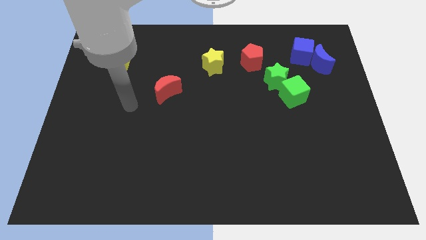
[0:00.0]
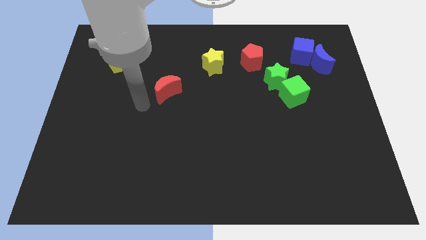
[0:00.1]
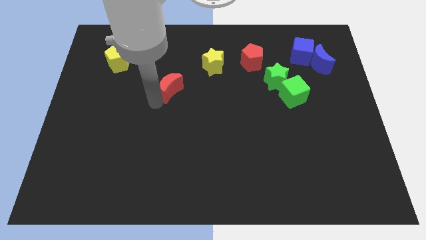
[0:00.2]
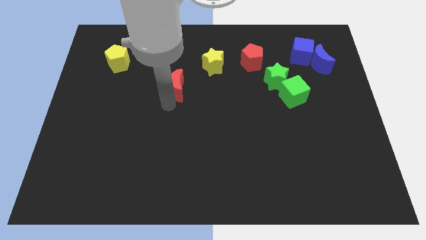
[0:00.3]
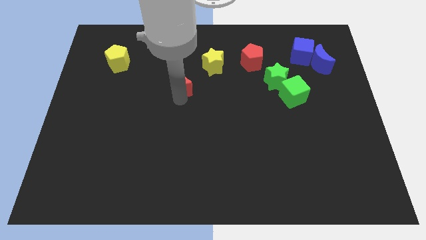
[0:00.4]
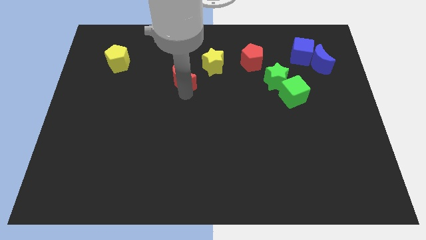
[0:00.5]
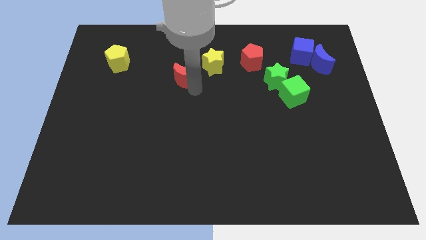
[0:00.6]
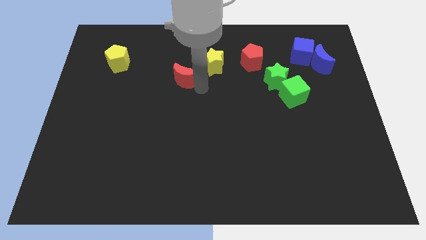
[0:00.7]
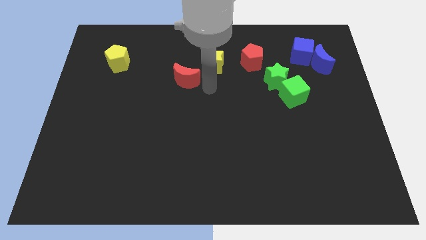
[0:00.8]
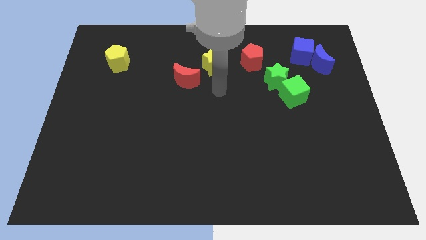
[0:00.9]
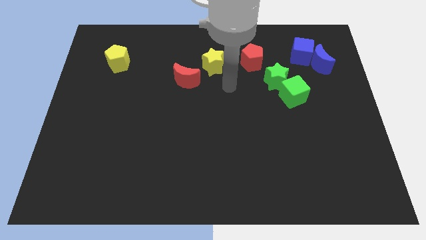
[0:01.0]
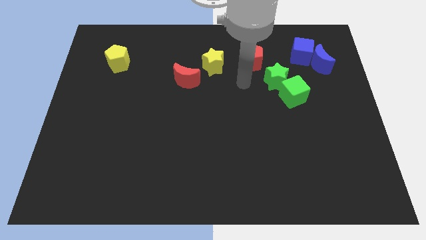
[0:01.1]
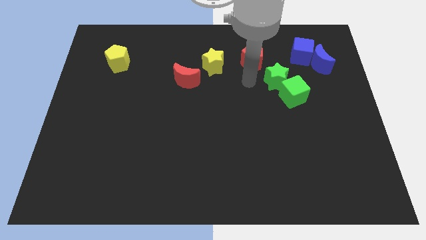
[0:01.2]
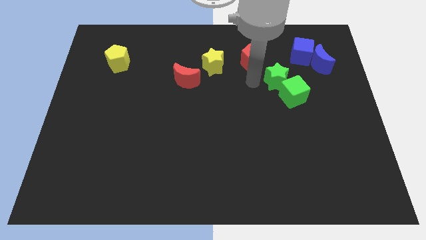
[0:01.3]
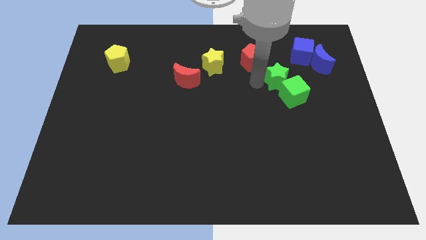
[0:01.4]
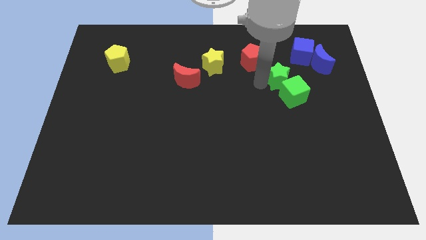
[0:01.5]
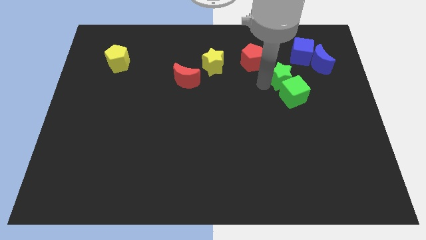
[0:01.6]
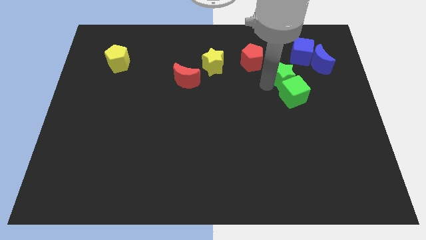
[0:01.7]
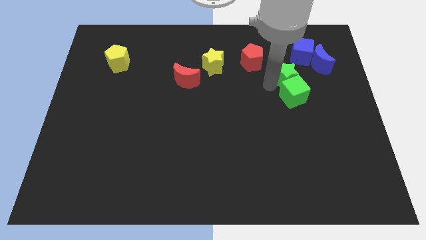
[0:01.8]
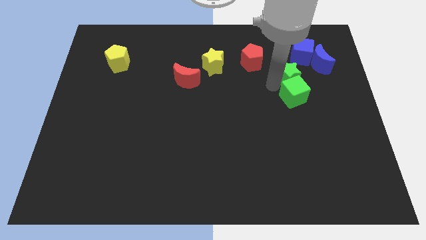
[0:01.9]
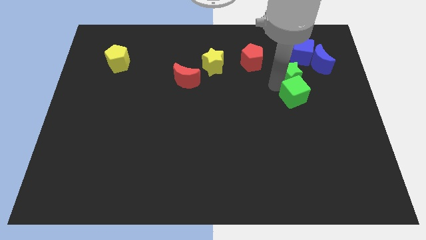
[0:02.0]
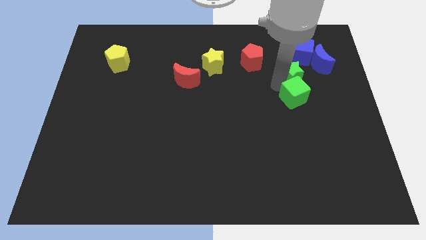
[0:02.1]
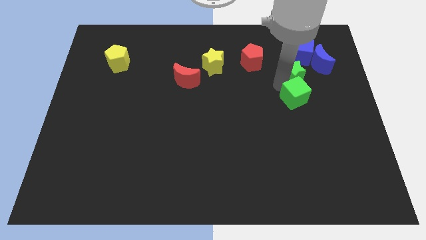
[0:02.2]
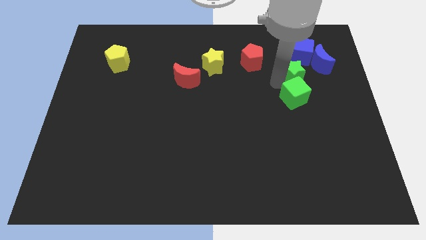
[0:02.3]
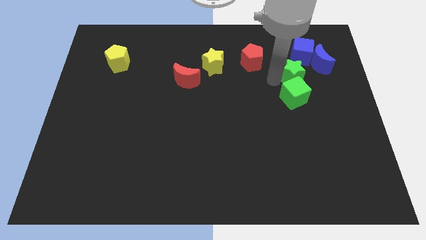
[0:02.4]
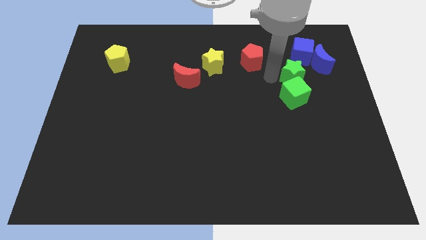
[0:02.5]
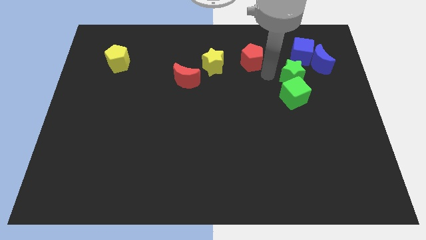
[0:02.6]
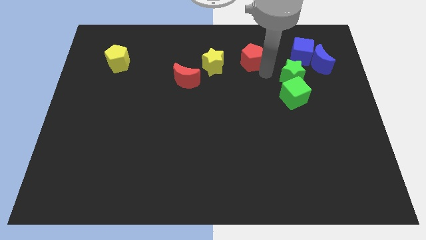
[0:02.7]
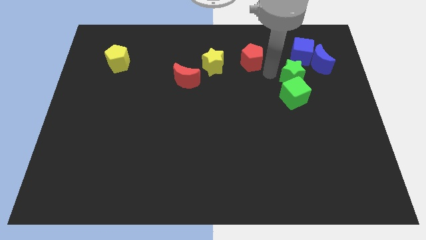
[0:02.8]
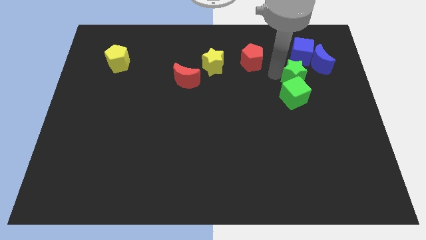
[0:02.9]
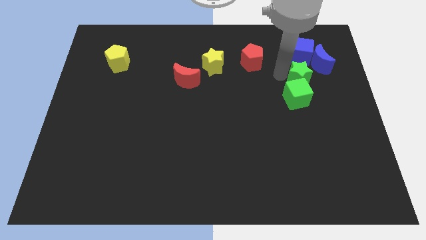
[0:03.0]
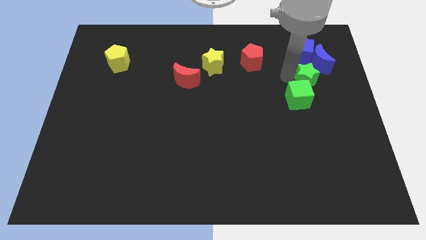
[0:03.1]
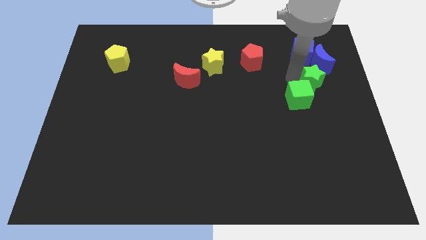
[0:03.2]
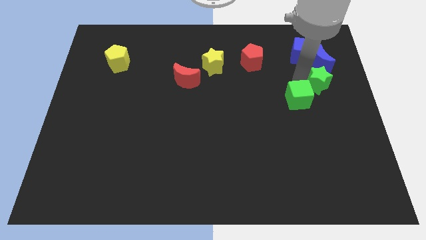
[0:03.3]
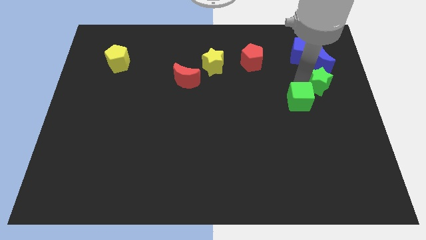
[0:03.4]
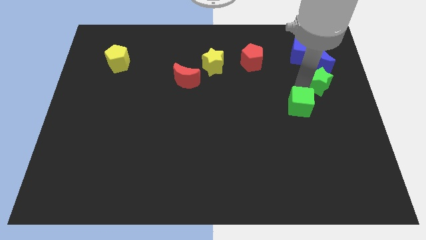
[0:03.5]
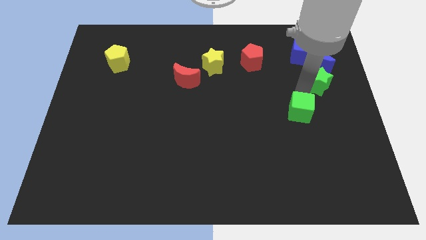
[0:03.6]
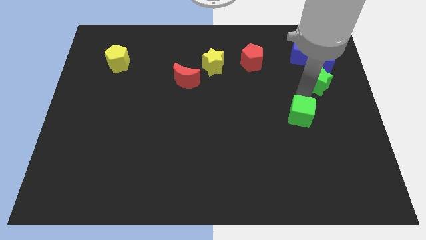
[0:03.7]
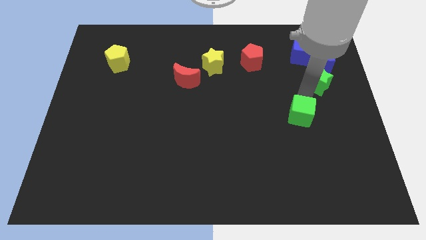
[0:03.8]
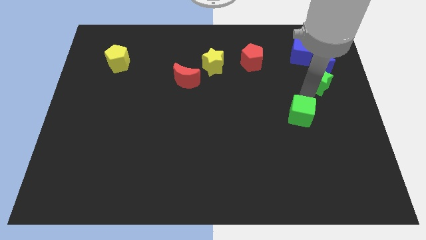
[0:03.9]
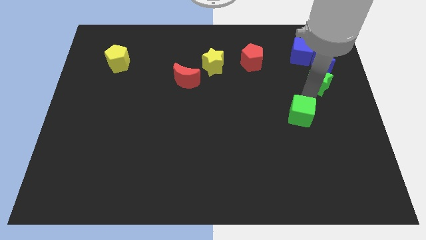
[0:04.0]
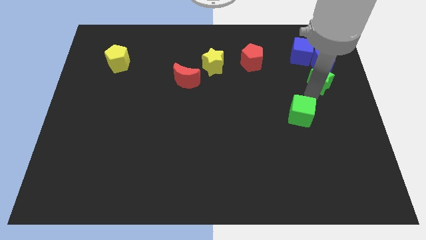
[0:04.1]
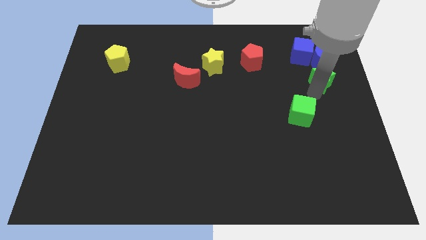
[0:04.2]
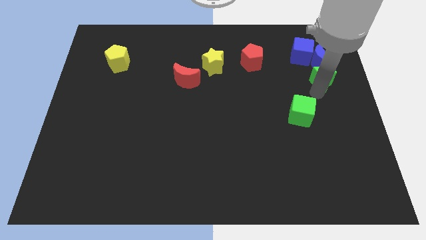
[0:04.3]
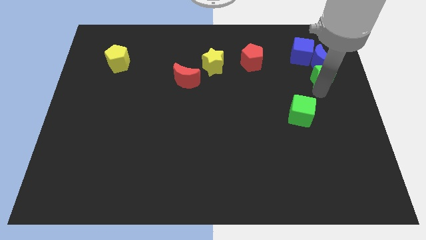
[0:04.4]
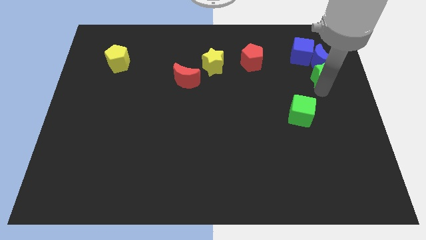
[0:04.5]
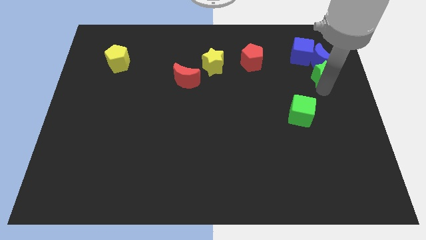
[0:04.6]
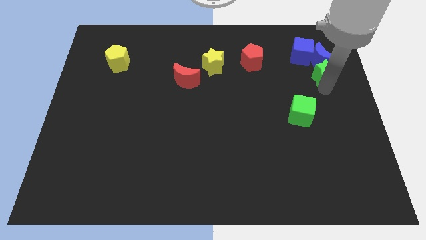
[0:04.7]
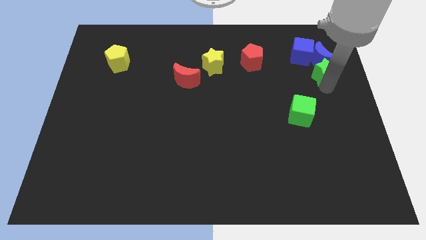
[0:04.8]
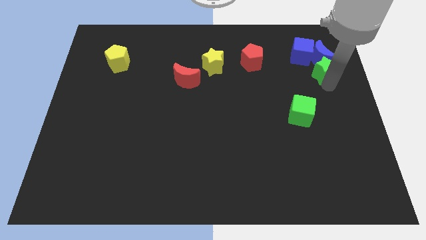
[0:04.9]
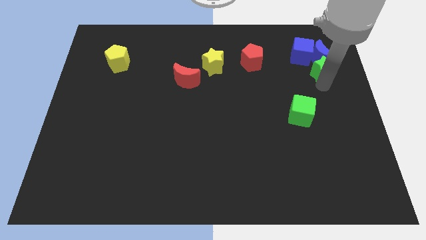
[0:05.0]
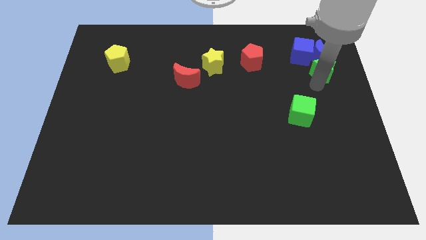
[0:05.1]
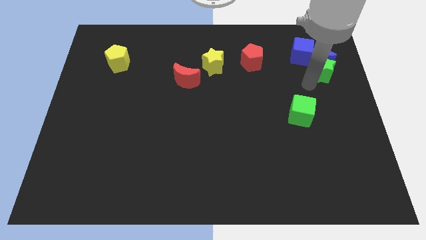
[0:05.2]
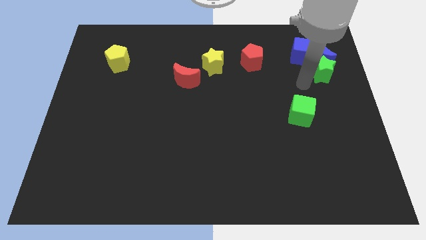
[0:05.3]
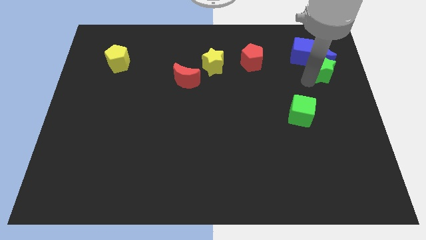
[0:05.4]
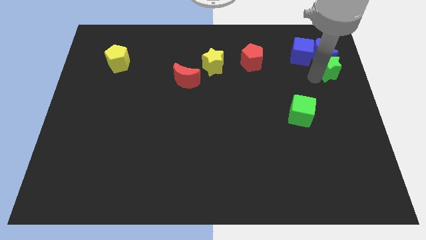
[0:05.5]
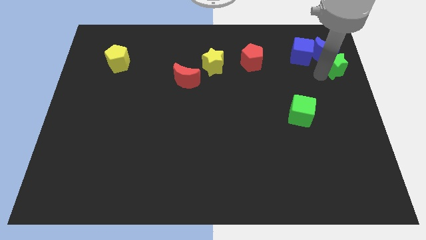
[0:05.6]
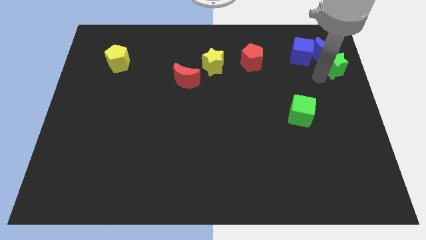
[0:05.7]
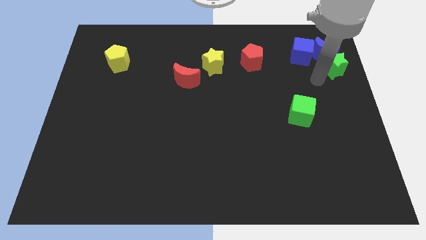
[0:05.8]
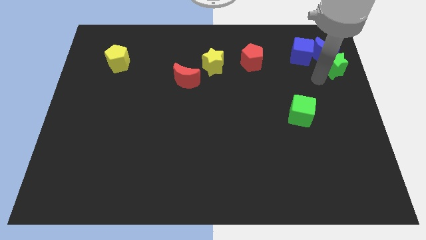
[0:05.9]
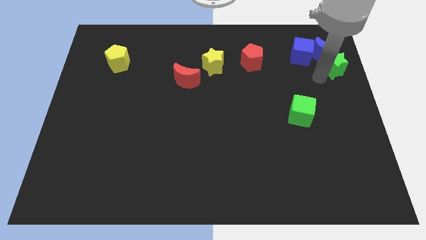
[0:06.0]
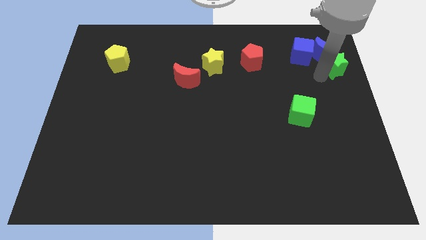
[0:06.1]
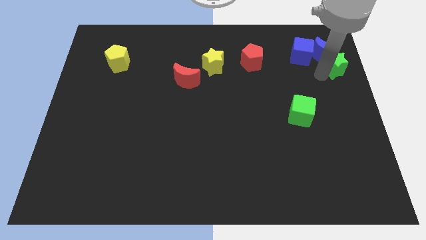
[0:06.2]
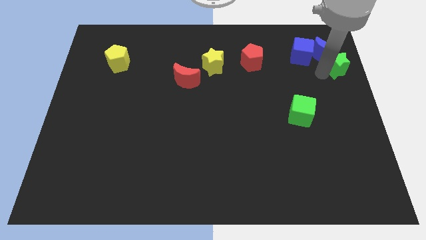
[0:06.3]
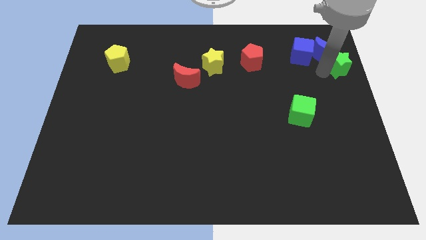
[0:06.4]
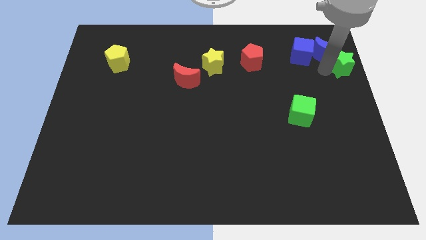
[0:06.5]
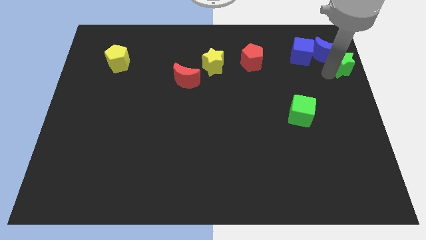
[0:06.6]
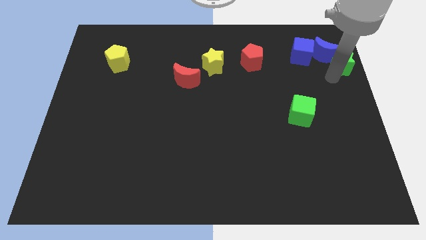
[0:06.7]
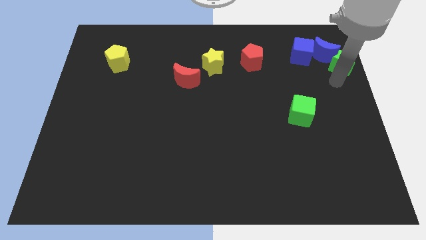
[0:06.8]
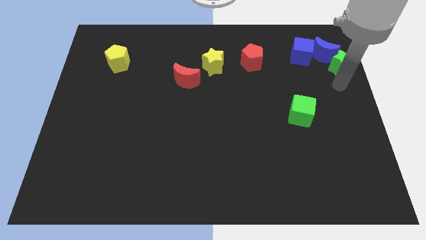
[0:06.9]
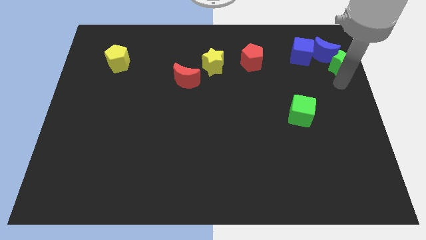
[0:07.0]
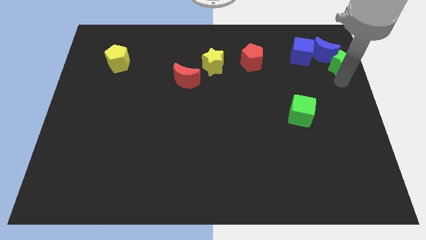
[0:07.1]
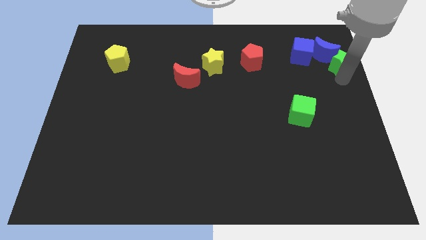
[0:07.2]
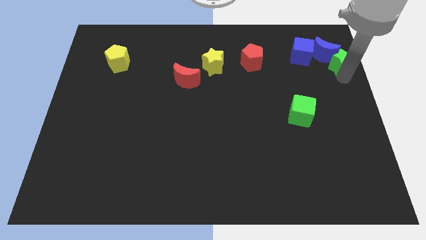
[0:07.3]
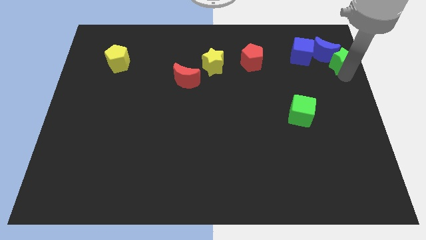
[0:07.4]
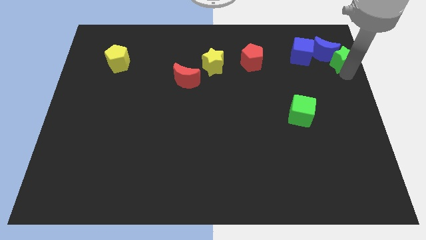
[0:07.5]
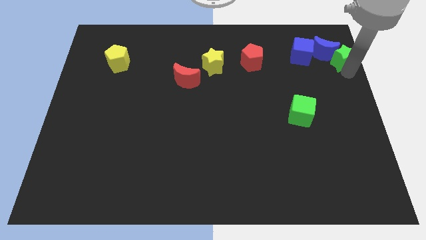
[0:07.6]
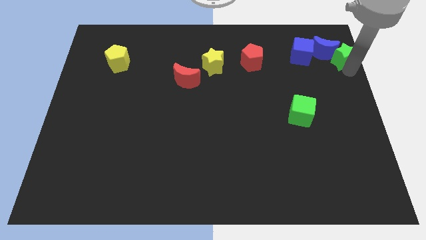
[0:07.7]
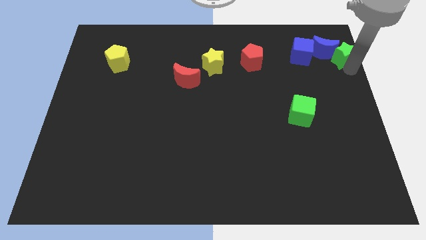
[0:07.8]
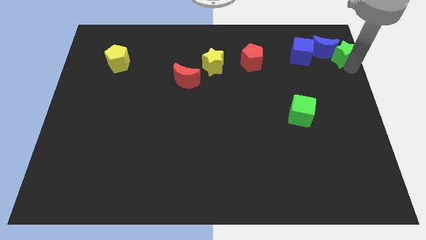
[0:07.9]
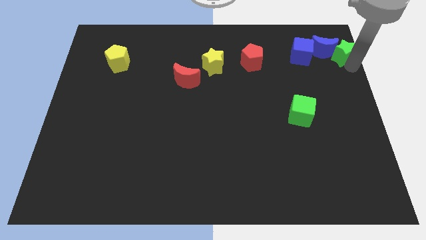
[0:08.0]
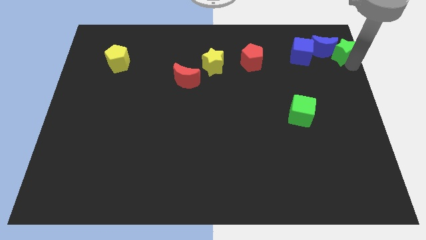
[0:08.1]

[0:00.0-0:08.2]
put the green star to the top right of the board

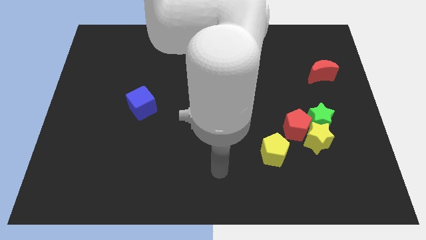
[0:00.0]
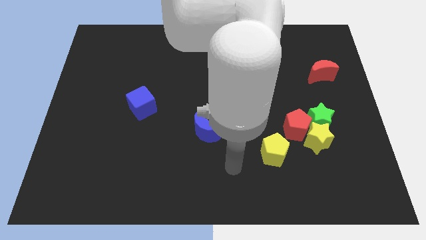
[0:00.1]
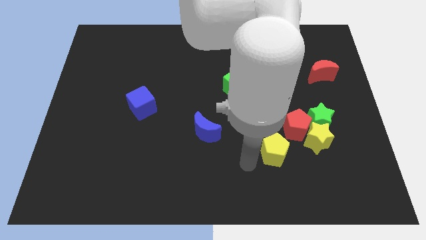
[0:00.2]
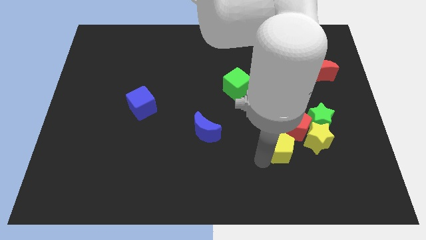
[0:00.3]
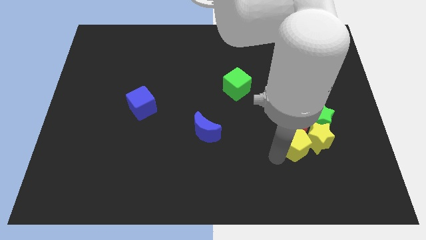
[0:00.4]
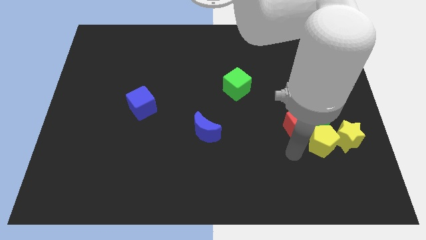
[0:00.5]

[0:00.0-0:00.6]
push the yellow star to the center right
